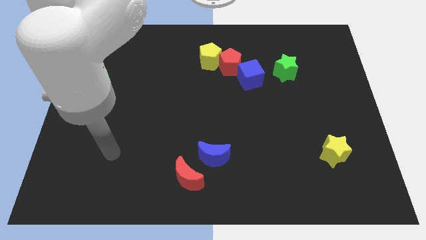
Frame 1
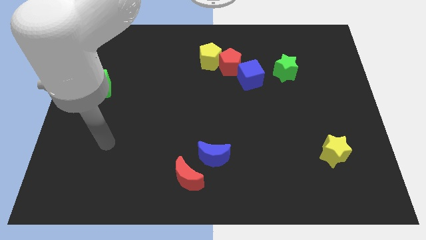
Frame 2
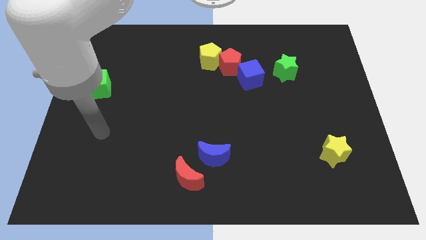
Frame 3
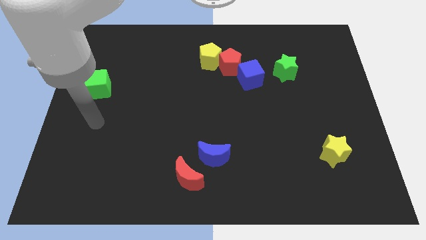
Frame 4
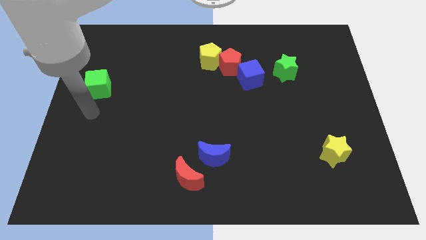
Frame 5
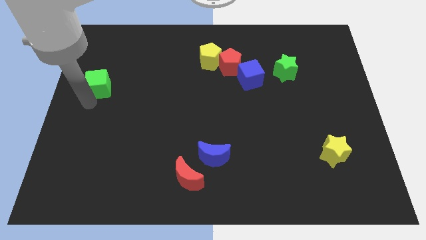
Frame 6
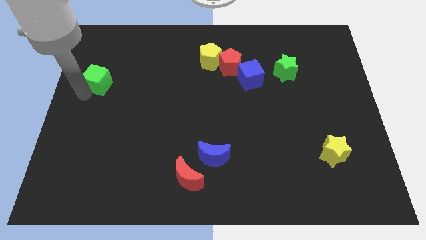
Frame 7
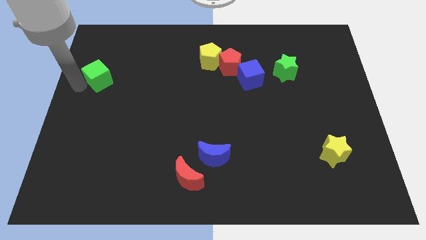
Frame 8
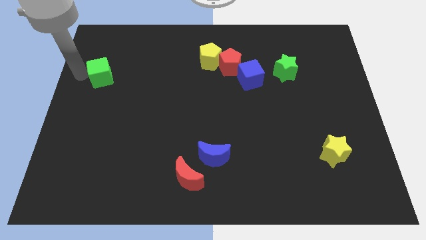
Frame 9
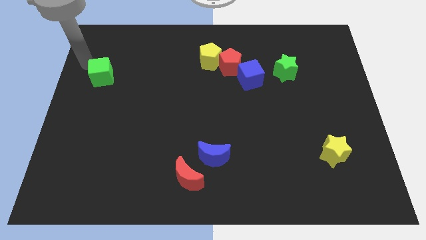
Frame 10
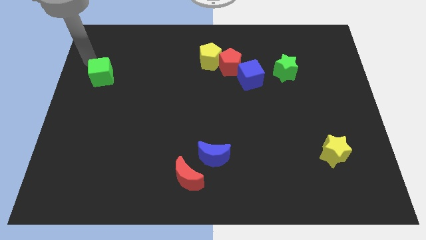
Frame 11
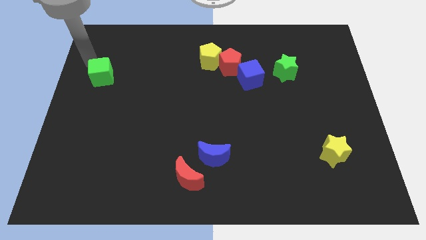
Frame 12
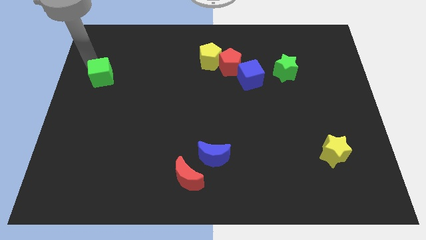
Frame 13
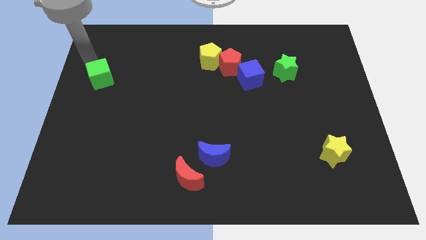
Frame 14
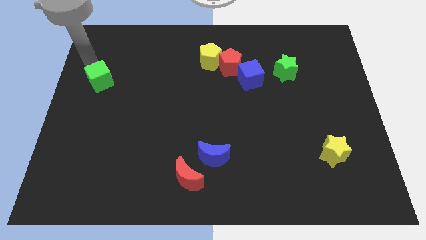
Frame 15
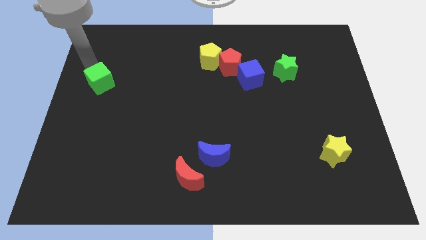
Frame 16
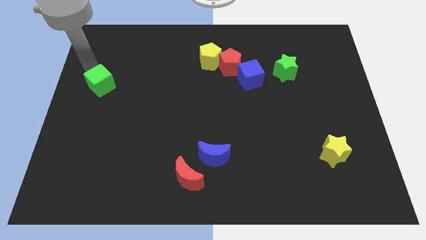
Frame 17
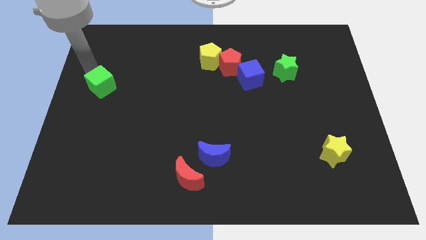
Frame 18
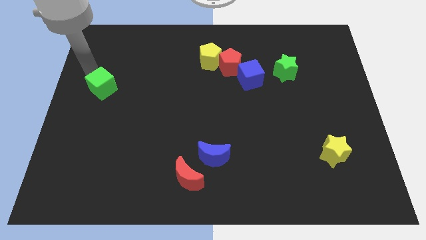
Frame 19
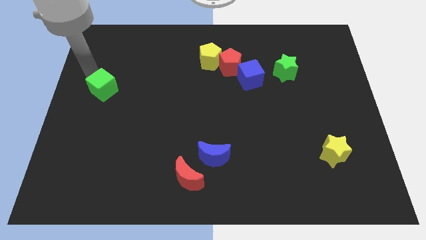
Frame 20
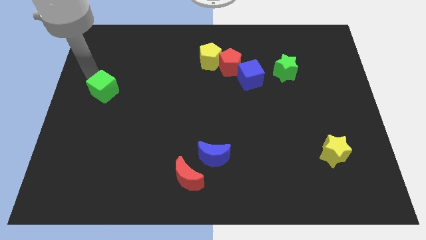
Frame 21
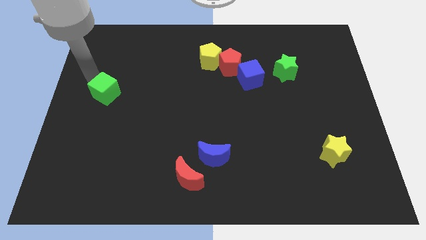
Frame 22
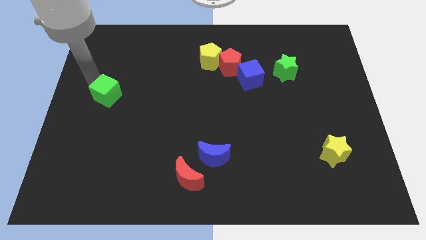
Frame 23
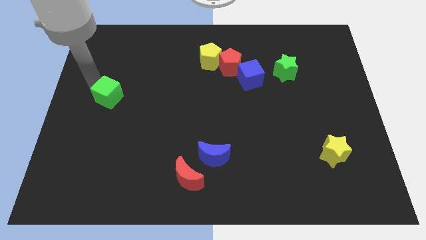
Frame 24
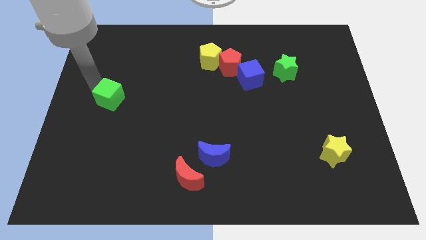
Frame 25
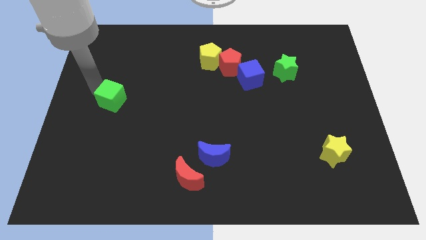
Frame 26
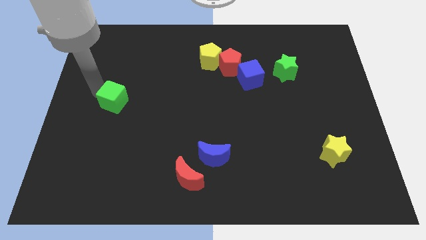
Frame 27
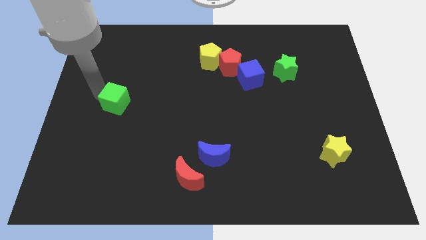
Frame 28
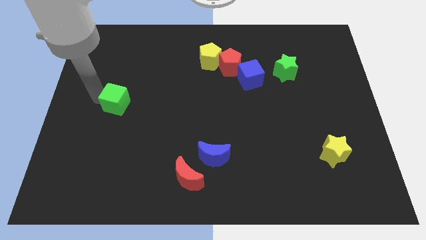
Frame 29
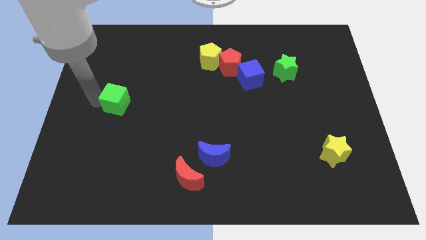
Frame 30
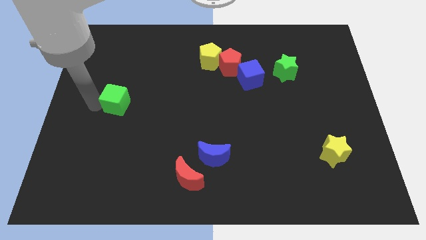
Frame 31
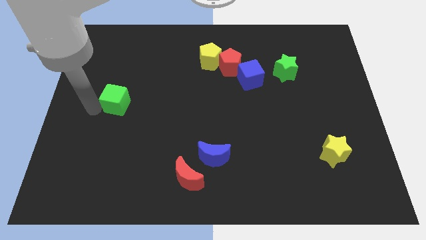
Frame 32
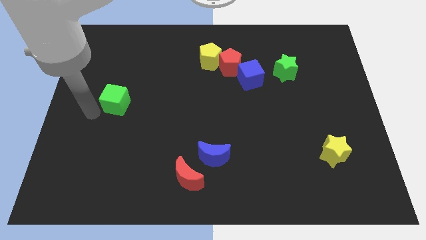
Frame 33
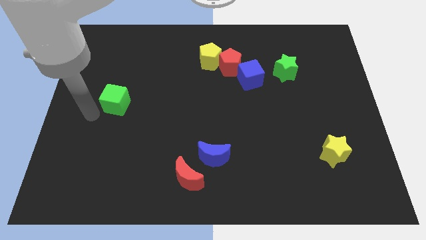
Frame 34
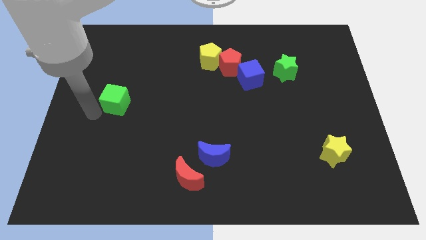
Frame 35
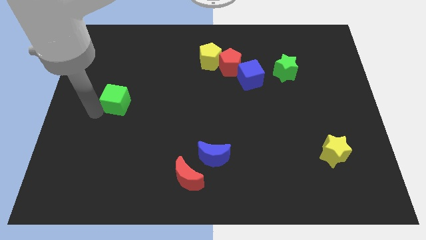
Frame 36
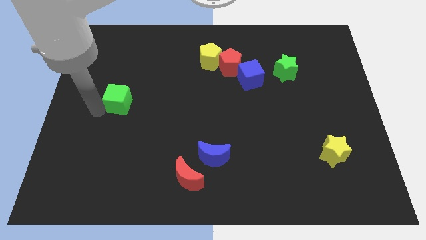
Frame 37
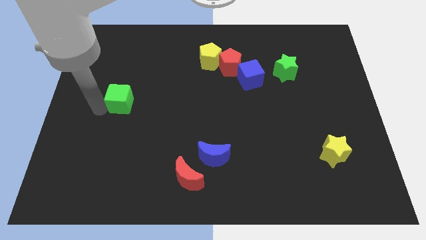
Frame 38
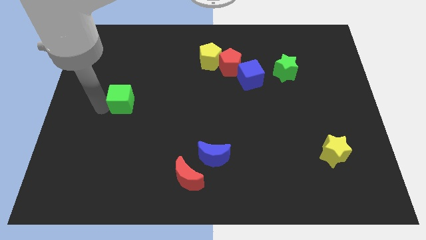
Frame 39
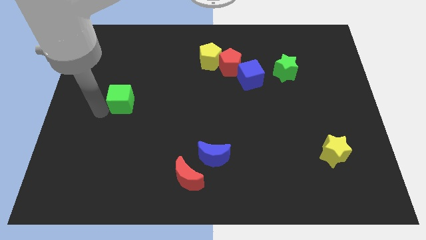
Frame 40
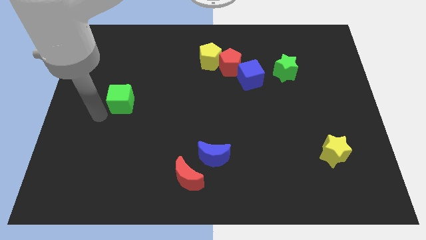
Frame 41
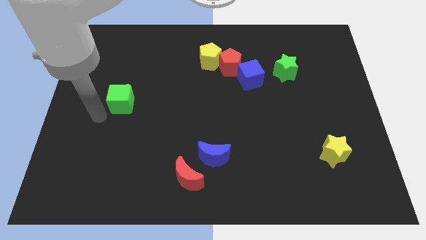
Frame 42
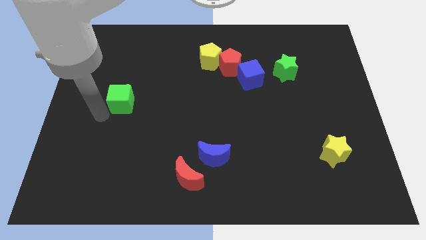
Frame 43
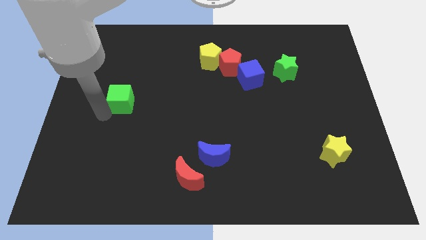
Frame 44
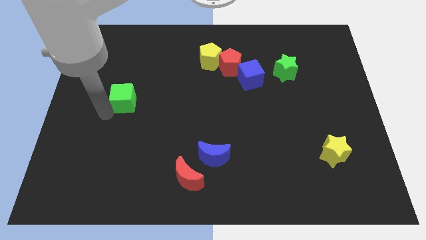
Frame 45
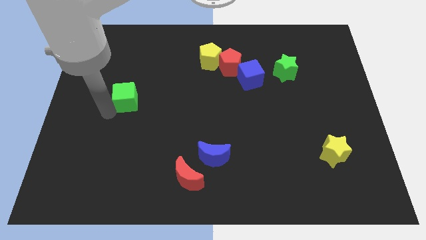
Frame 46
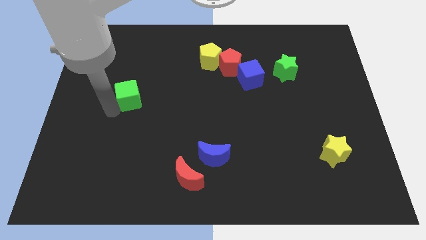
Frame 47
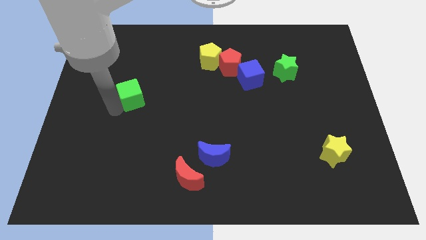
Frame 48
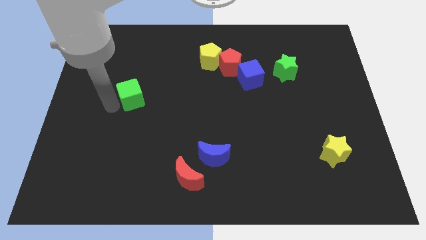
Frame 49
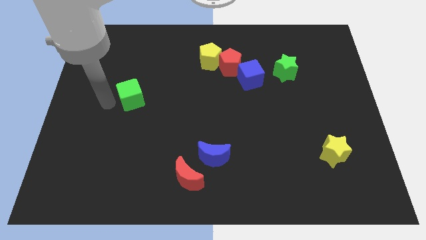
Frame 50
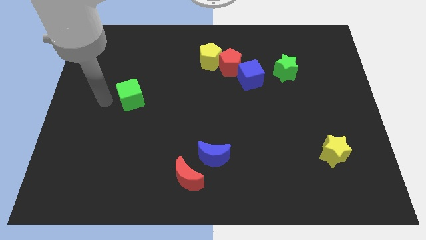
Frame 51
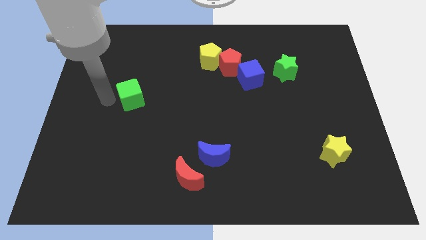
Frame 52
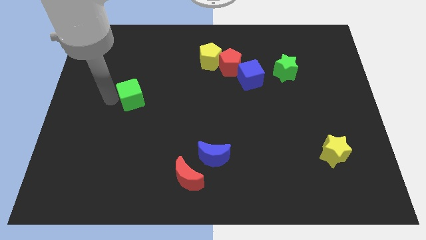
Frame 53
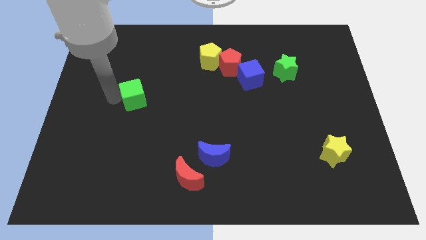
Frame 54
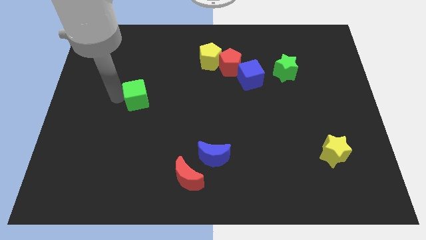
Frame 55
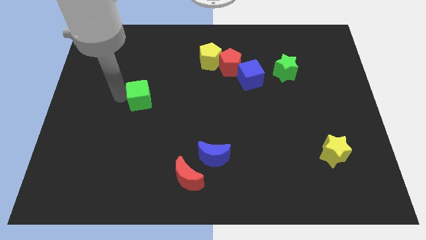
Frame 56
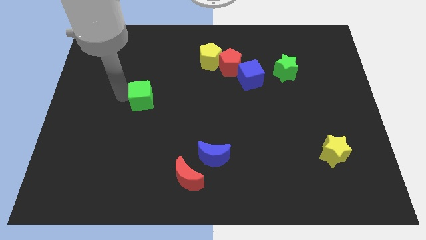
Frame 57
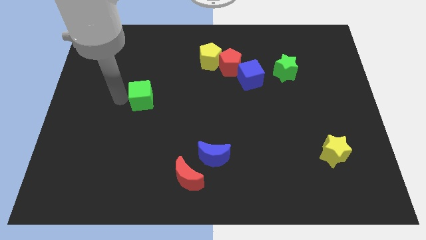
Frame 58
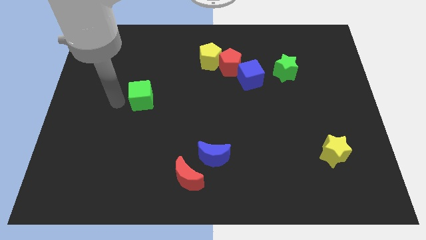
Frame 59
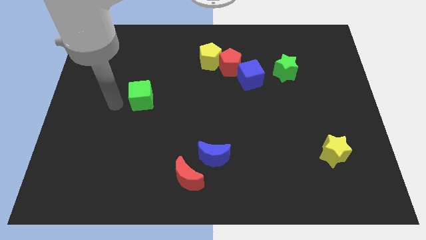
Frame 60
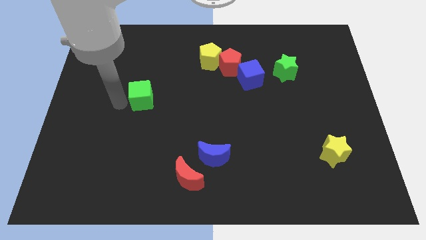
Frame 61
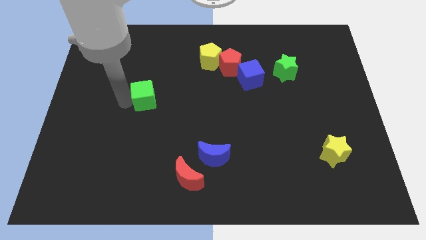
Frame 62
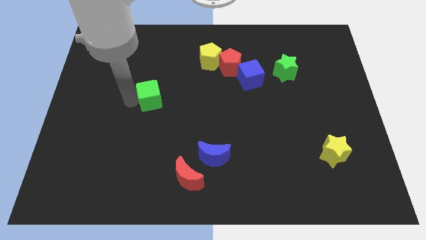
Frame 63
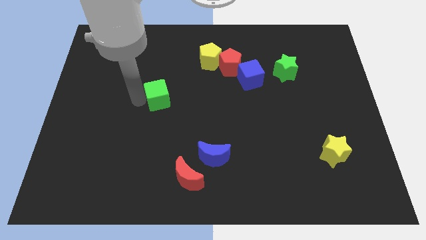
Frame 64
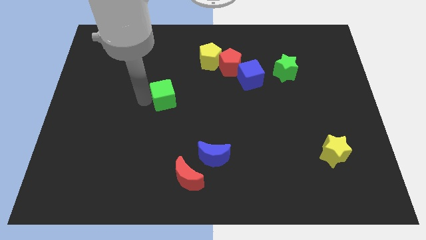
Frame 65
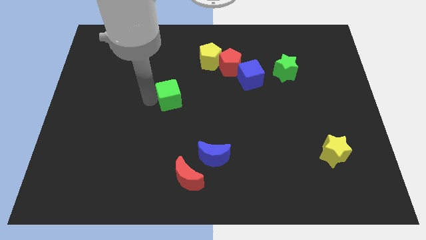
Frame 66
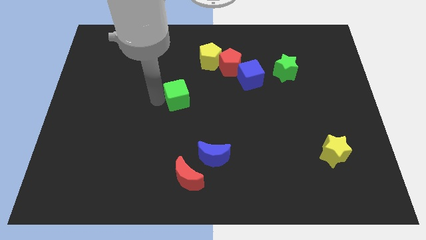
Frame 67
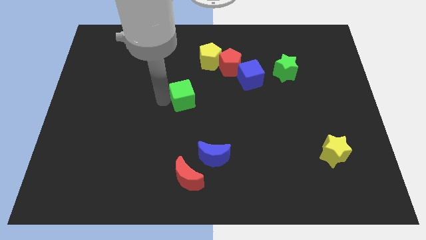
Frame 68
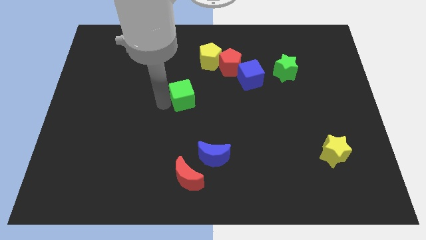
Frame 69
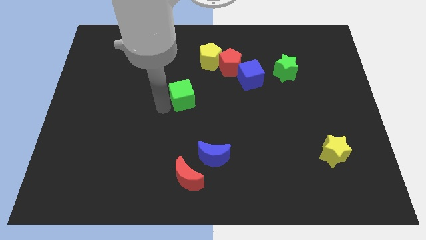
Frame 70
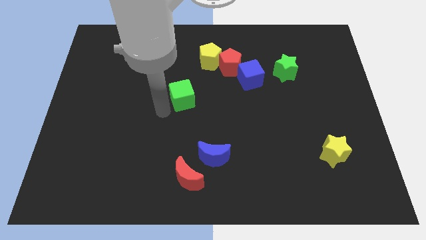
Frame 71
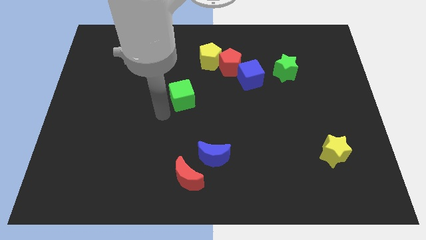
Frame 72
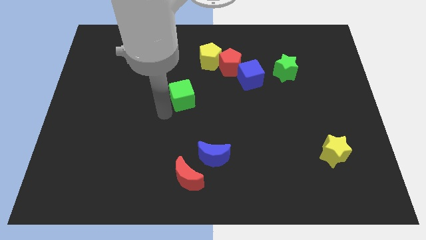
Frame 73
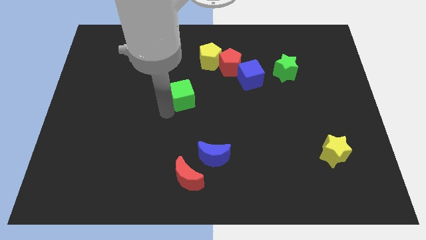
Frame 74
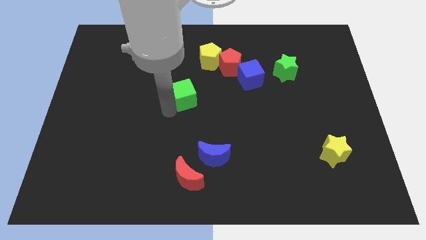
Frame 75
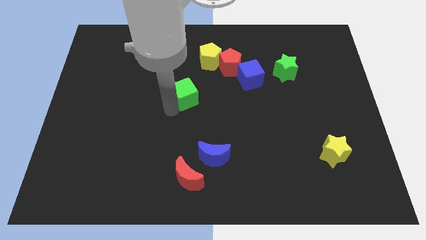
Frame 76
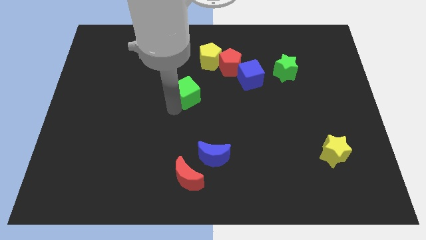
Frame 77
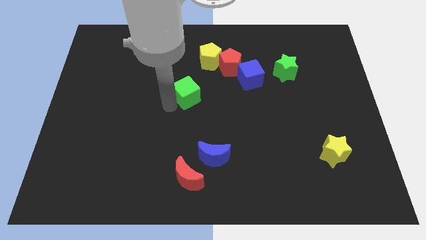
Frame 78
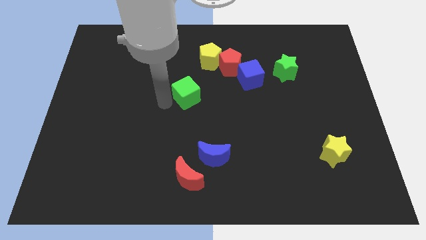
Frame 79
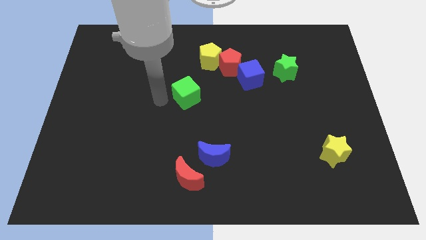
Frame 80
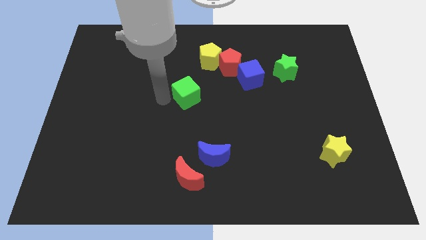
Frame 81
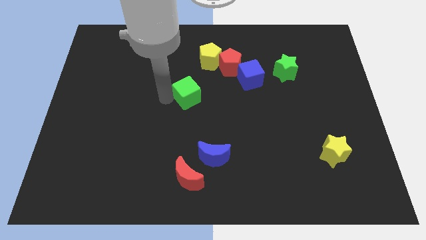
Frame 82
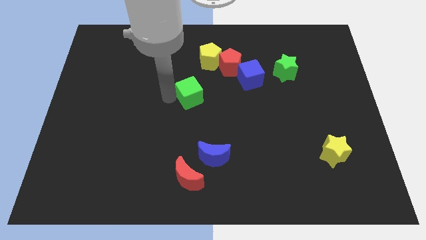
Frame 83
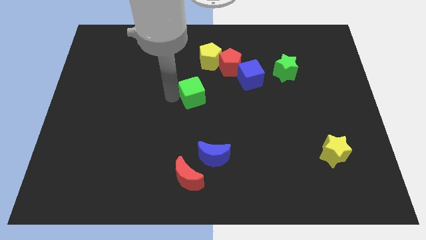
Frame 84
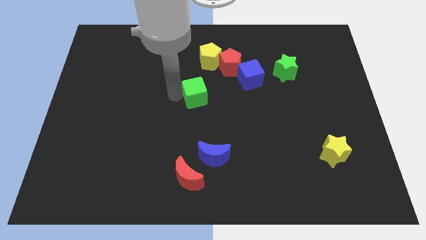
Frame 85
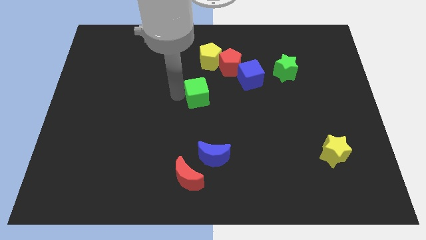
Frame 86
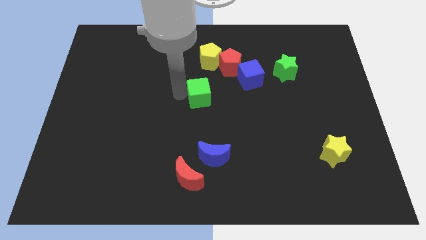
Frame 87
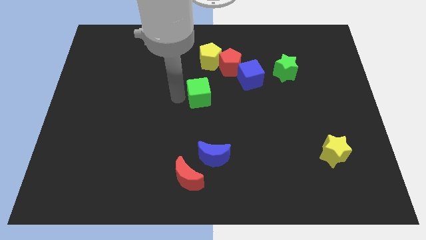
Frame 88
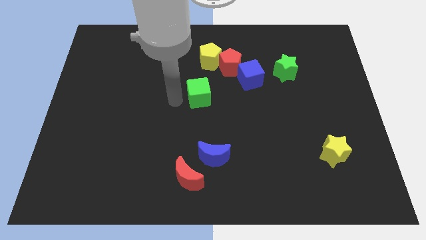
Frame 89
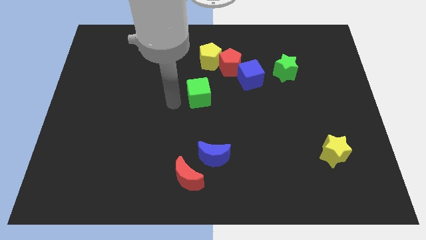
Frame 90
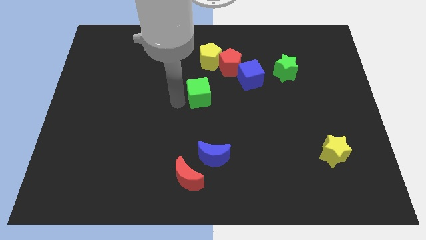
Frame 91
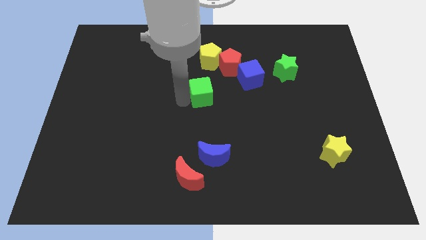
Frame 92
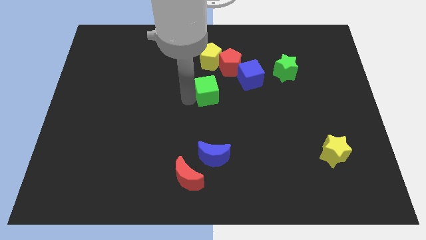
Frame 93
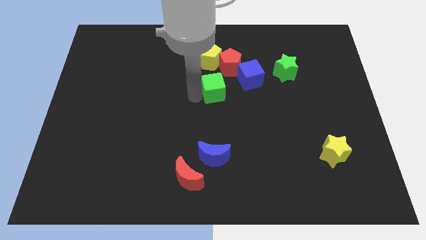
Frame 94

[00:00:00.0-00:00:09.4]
move the green cube to the bottom of the red pentagon
